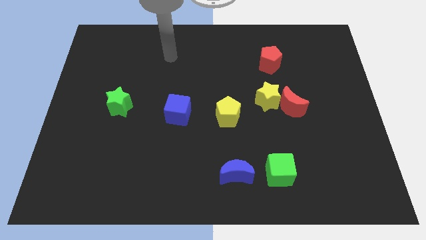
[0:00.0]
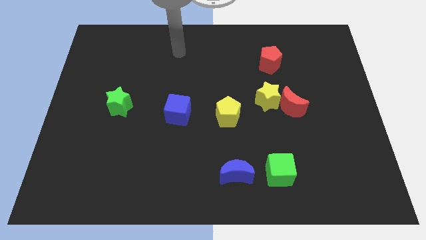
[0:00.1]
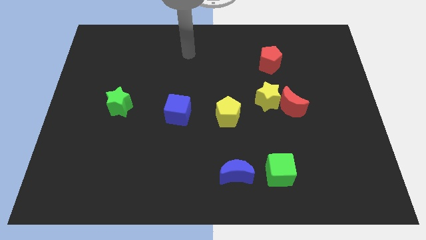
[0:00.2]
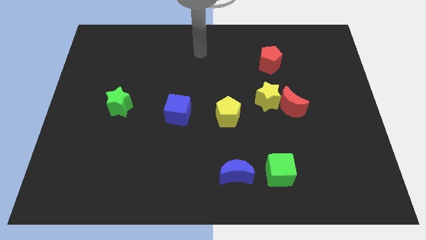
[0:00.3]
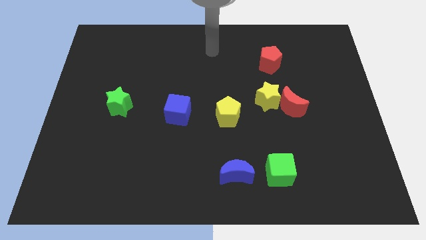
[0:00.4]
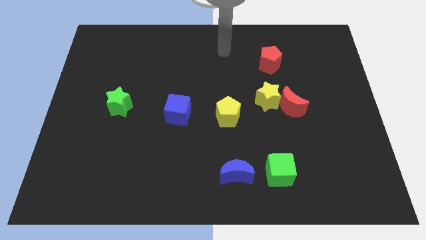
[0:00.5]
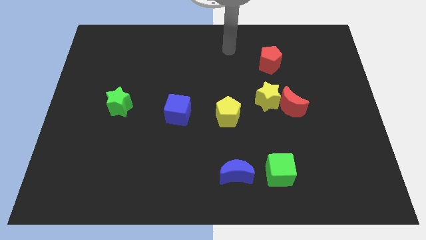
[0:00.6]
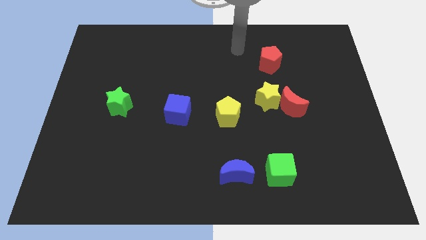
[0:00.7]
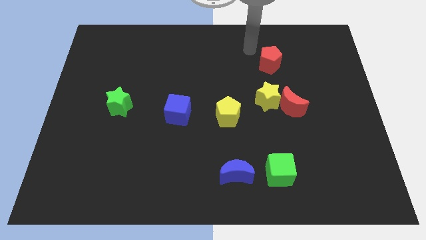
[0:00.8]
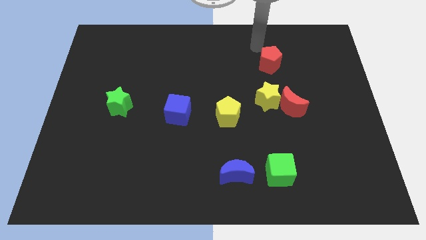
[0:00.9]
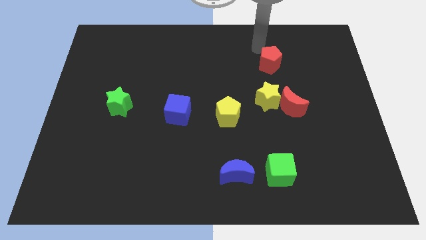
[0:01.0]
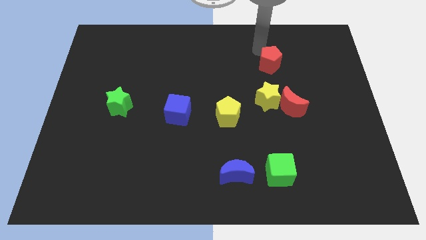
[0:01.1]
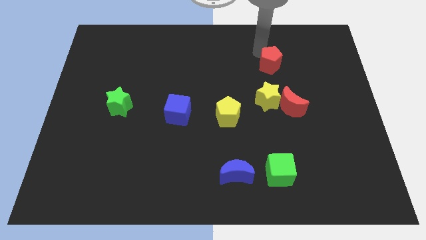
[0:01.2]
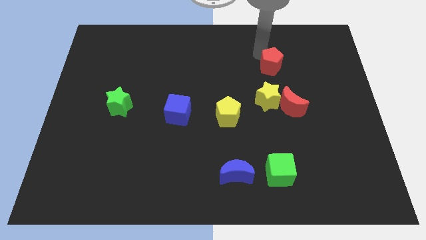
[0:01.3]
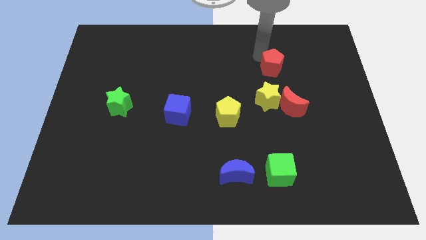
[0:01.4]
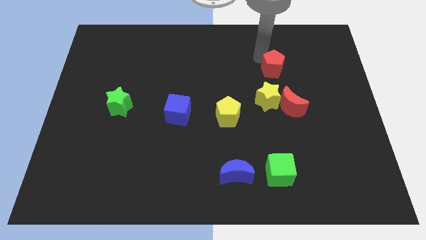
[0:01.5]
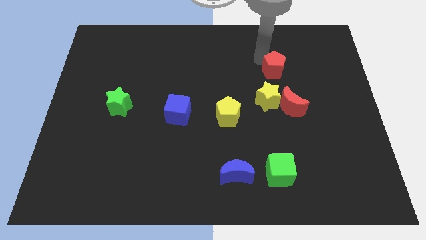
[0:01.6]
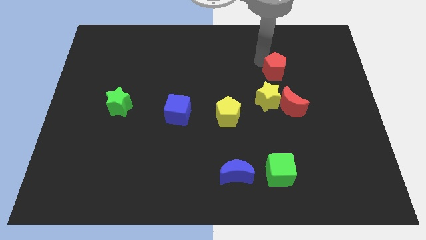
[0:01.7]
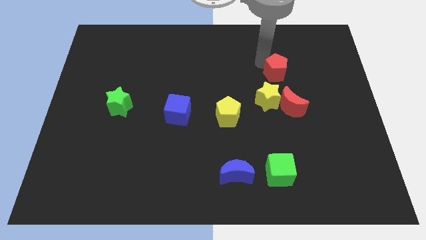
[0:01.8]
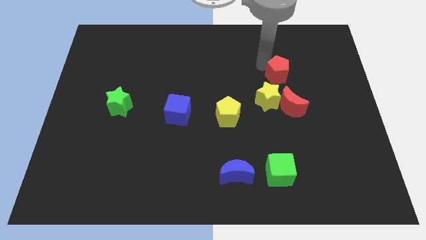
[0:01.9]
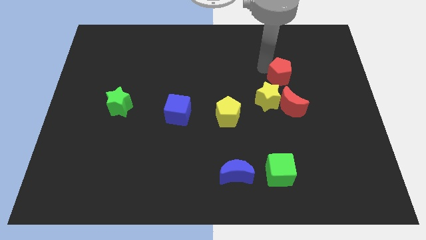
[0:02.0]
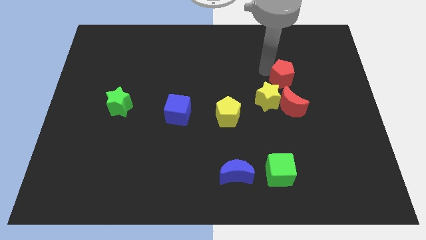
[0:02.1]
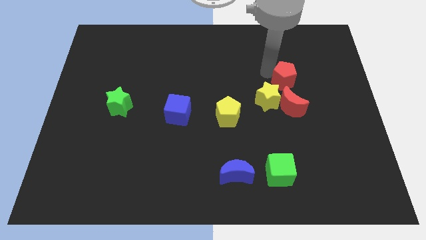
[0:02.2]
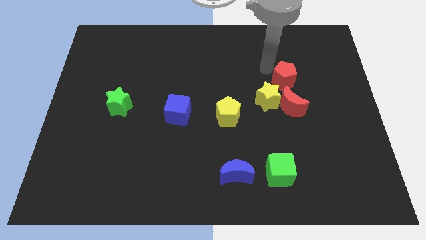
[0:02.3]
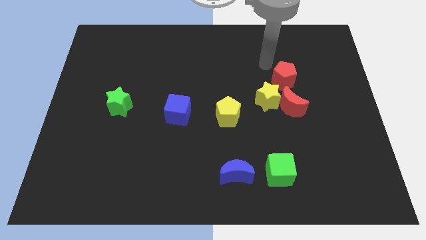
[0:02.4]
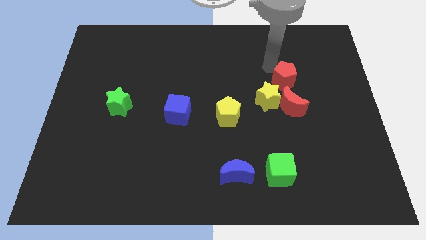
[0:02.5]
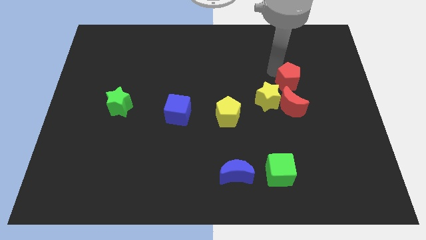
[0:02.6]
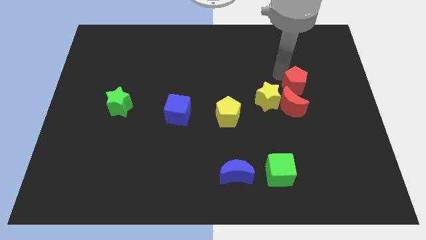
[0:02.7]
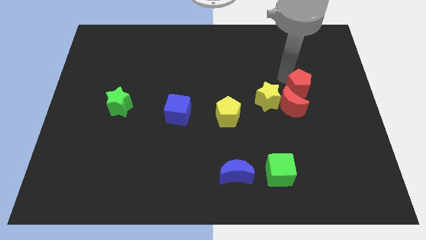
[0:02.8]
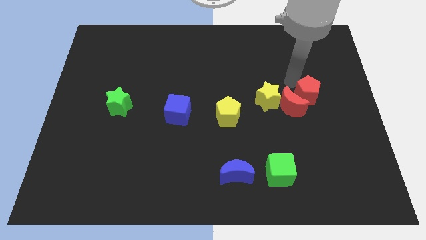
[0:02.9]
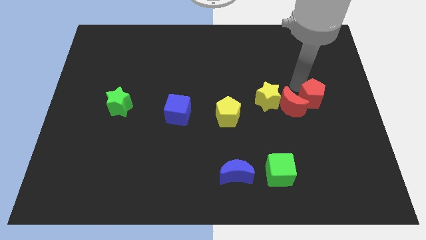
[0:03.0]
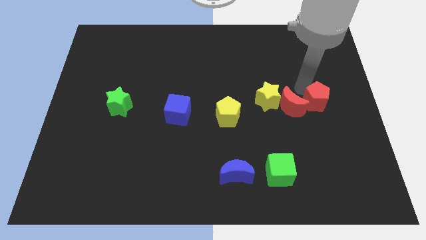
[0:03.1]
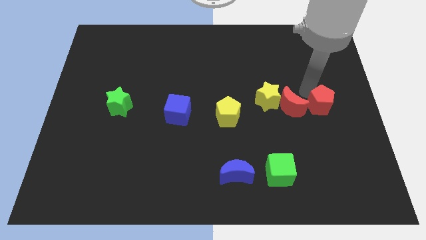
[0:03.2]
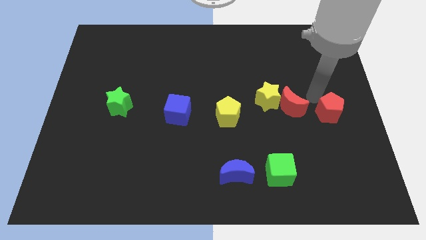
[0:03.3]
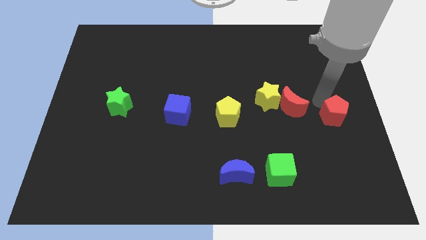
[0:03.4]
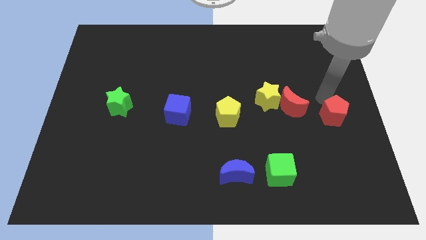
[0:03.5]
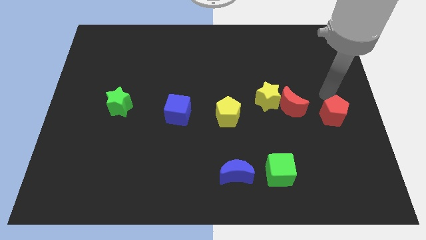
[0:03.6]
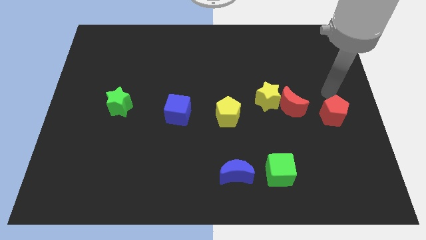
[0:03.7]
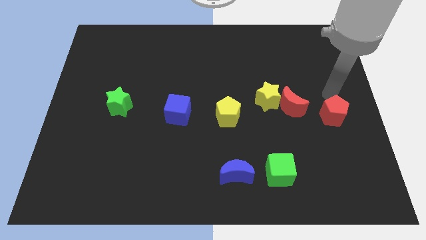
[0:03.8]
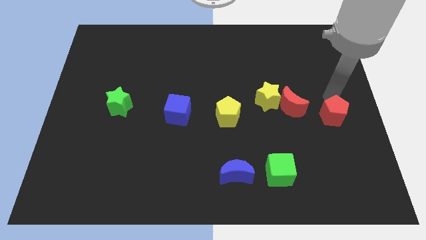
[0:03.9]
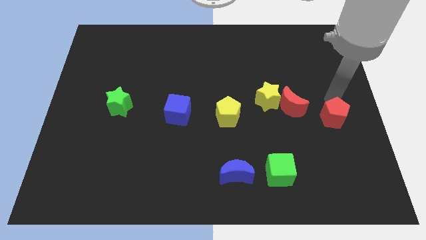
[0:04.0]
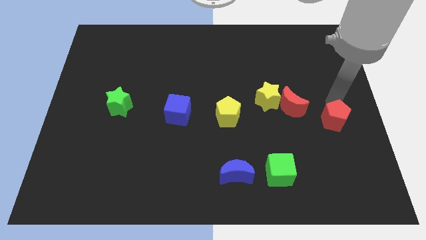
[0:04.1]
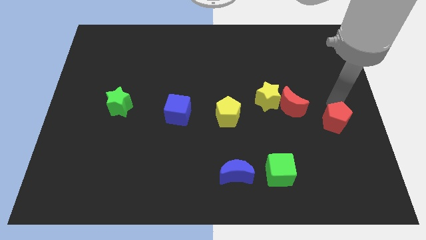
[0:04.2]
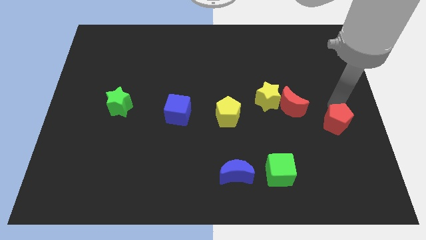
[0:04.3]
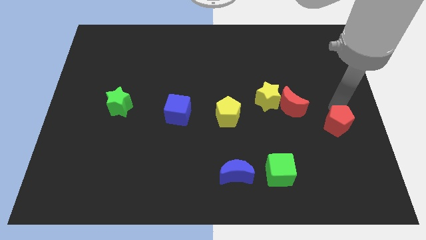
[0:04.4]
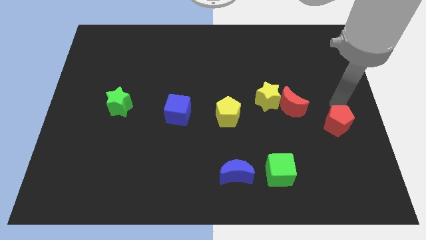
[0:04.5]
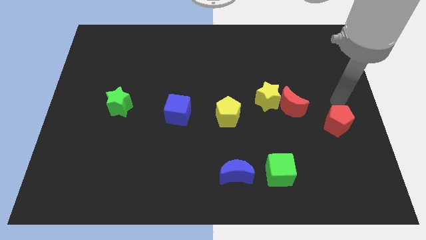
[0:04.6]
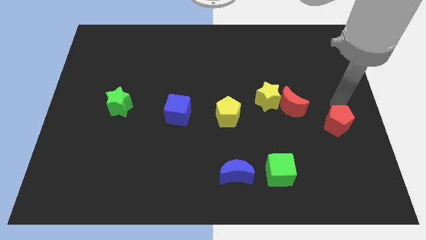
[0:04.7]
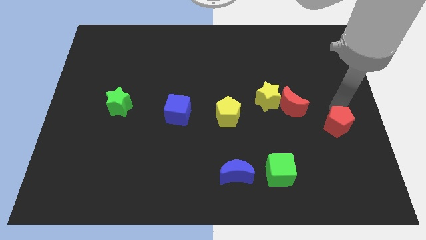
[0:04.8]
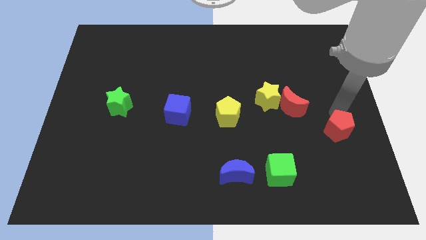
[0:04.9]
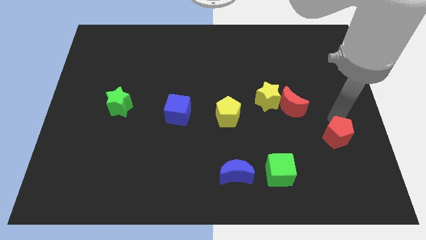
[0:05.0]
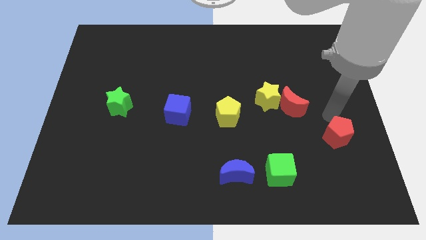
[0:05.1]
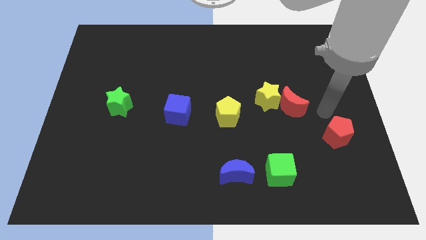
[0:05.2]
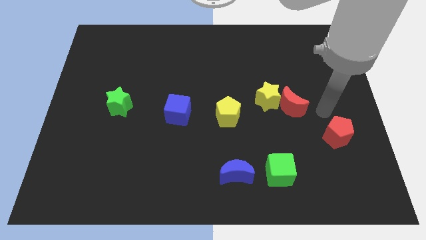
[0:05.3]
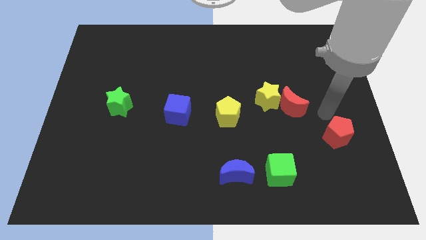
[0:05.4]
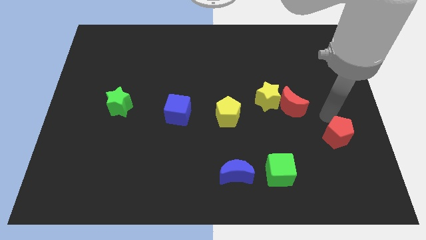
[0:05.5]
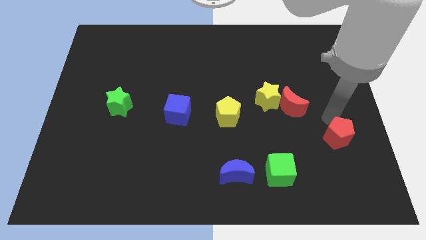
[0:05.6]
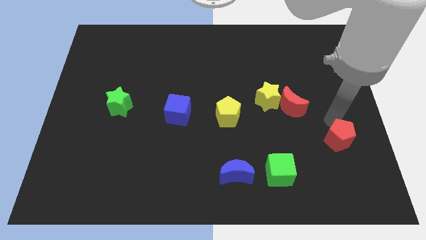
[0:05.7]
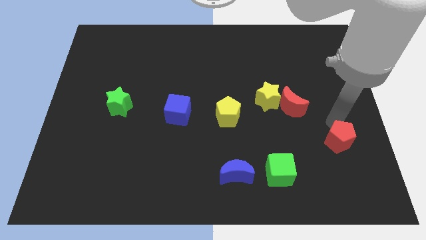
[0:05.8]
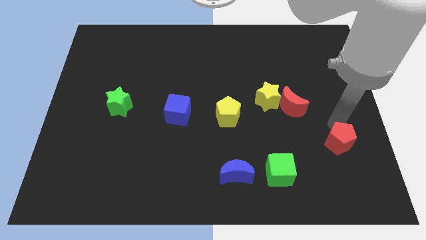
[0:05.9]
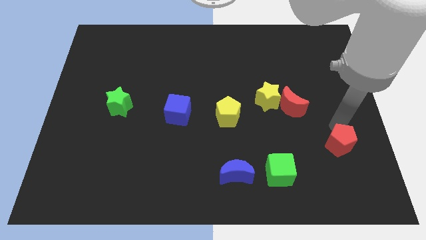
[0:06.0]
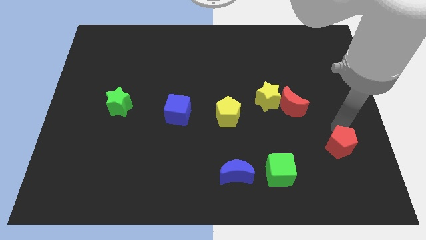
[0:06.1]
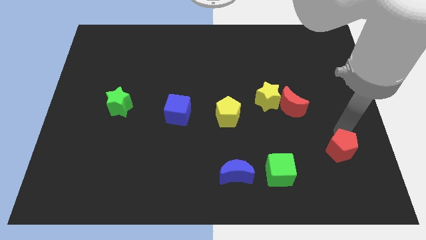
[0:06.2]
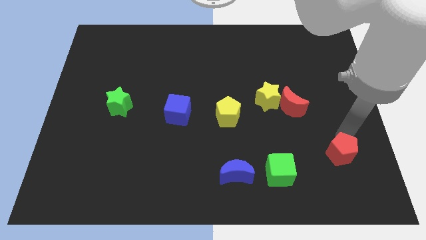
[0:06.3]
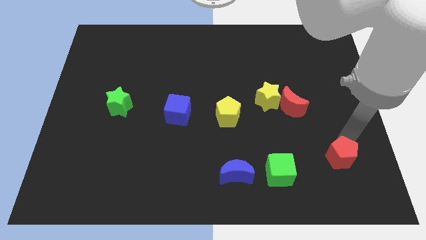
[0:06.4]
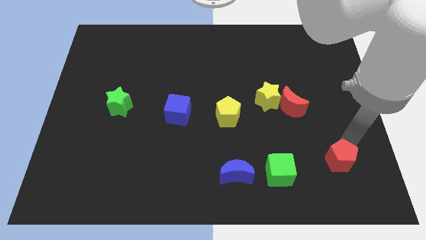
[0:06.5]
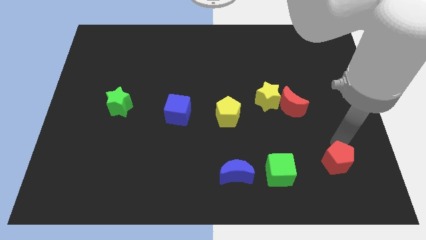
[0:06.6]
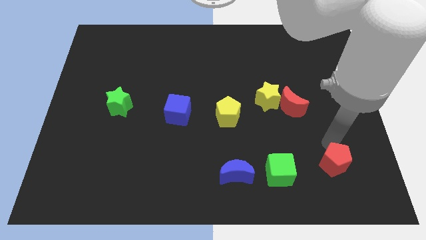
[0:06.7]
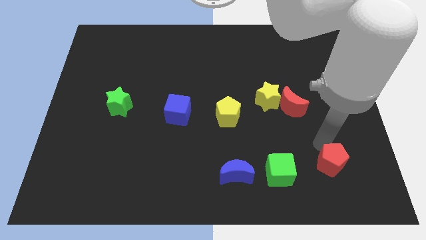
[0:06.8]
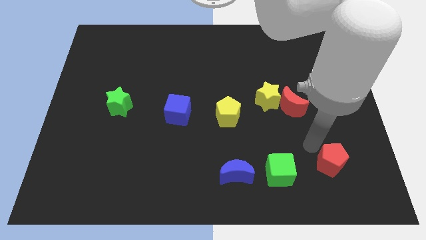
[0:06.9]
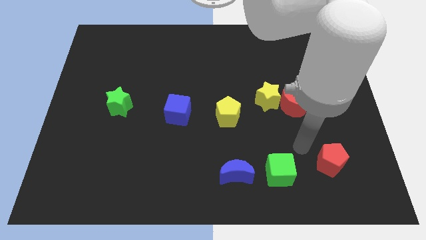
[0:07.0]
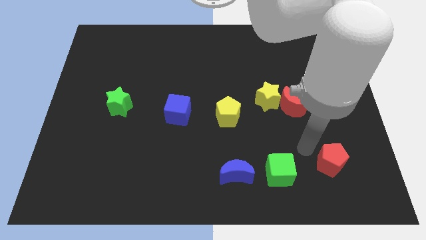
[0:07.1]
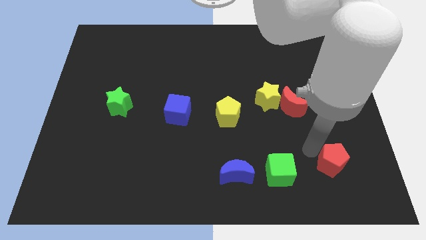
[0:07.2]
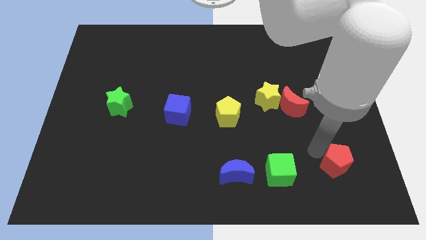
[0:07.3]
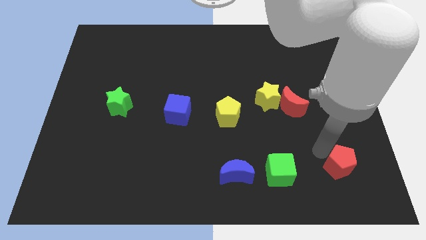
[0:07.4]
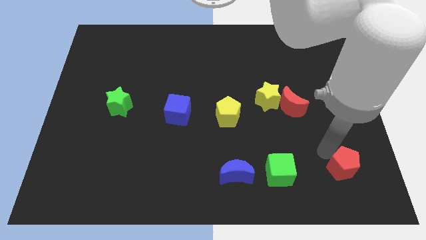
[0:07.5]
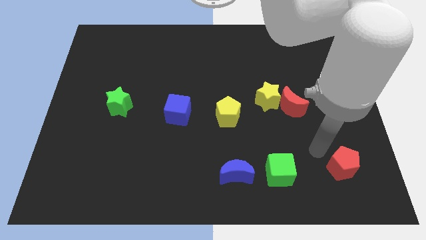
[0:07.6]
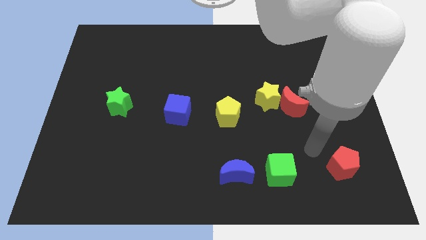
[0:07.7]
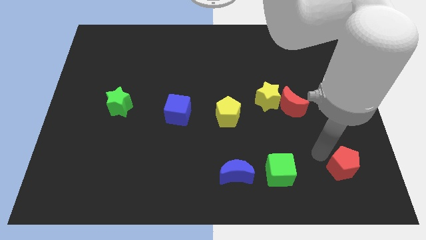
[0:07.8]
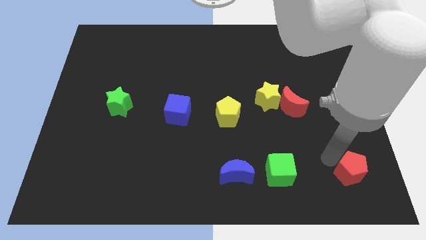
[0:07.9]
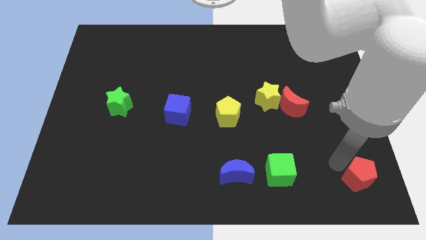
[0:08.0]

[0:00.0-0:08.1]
push the red pentagon to the bottom right corner
